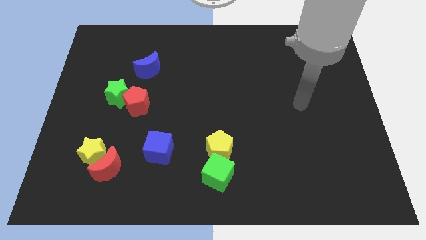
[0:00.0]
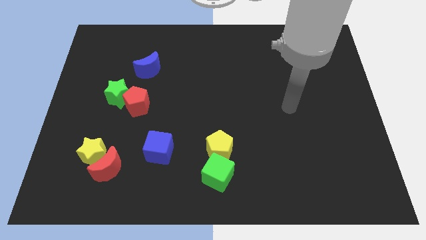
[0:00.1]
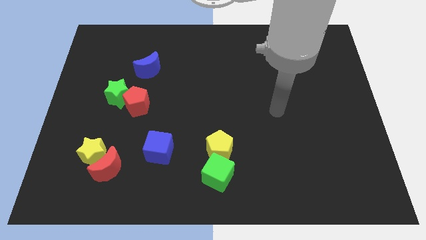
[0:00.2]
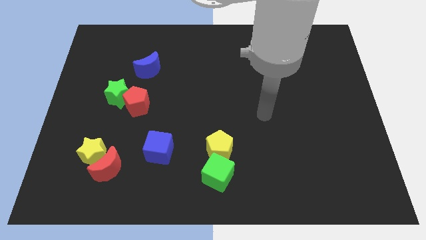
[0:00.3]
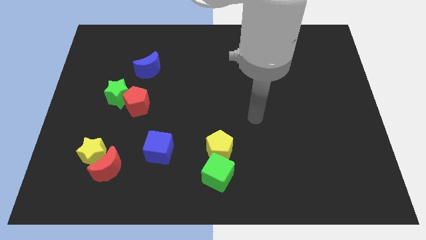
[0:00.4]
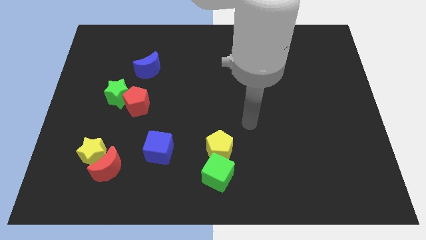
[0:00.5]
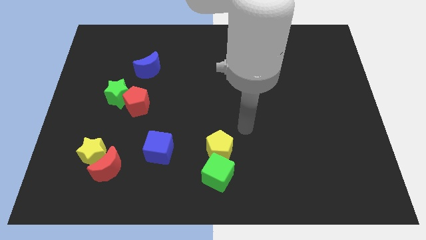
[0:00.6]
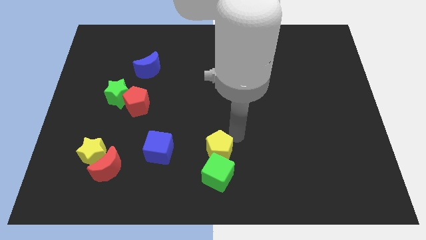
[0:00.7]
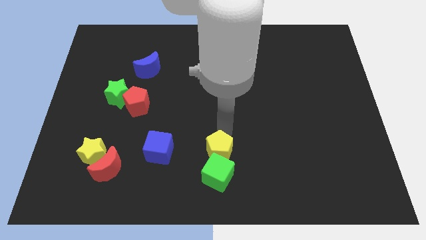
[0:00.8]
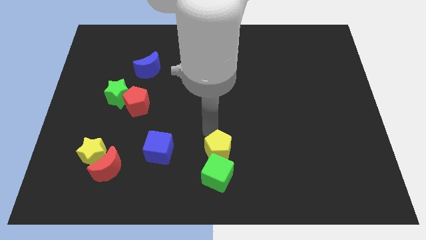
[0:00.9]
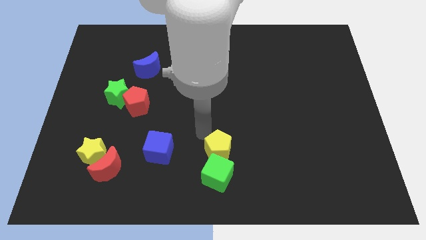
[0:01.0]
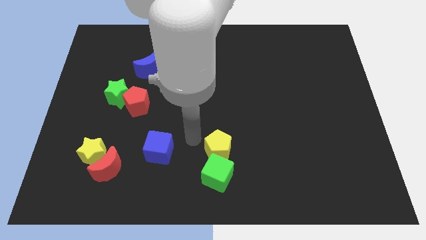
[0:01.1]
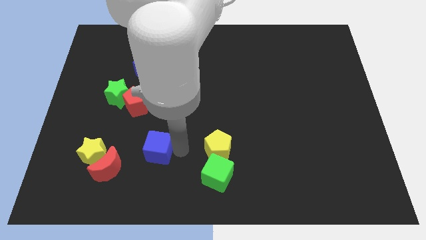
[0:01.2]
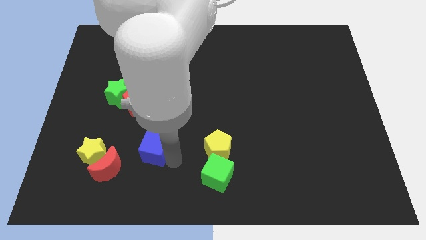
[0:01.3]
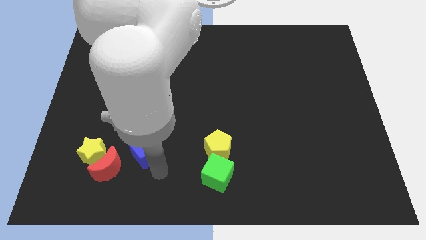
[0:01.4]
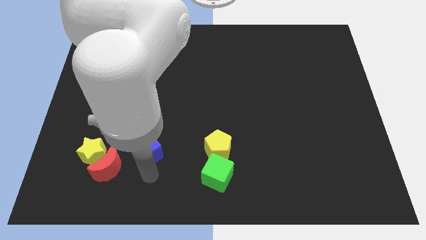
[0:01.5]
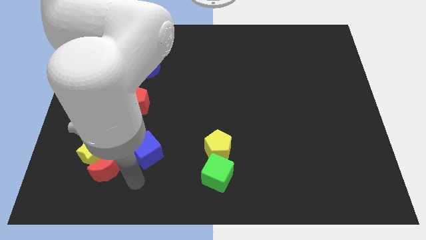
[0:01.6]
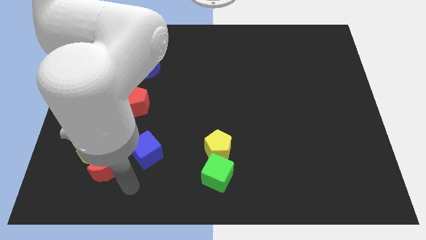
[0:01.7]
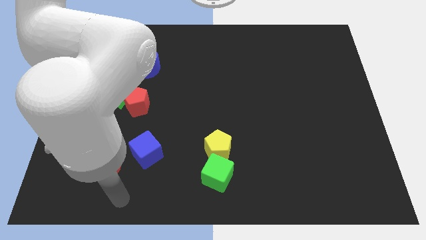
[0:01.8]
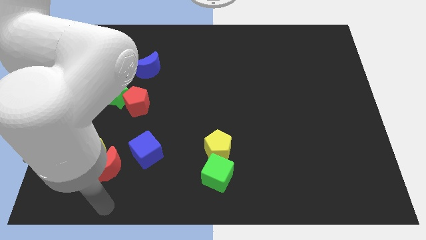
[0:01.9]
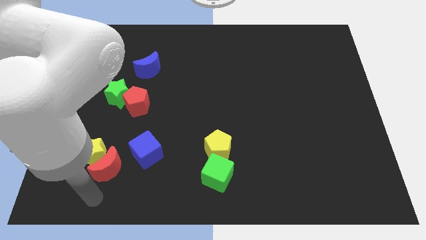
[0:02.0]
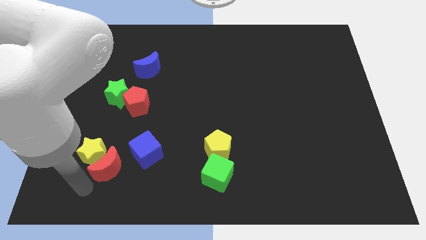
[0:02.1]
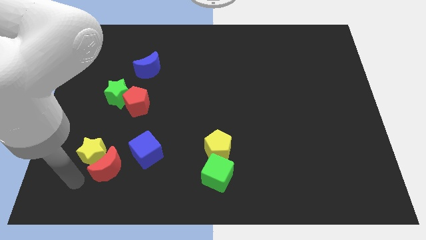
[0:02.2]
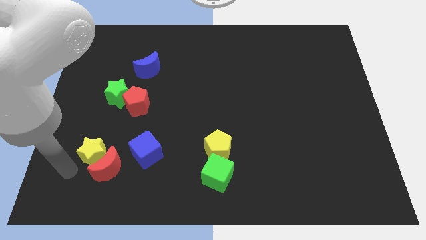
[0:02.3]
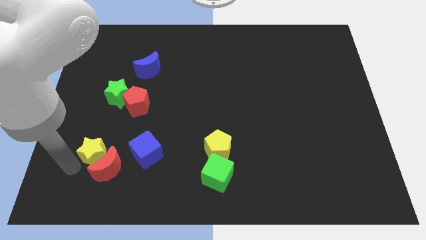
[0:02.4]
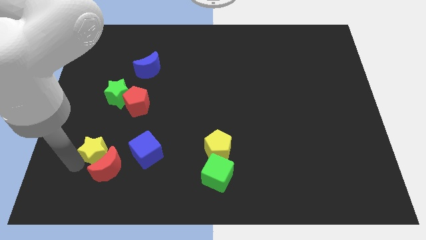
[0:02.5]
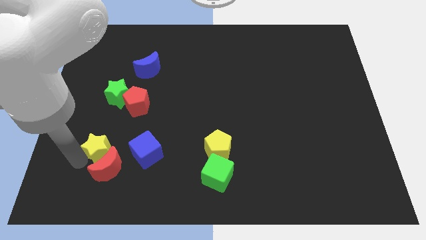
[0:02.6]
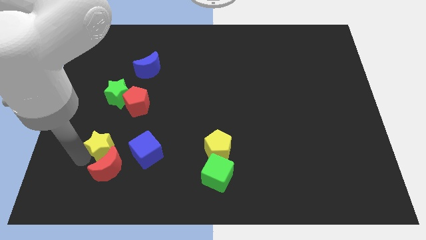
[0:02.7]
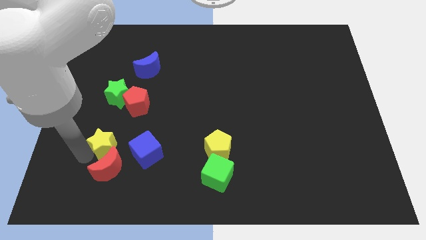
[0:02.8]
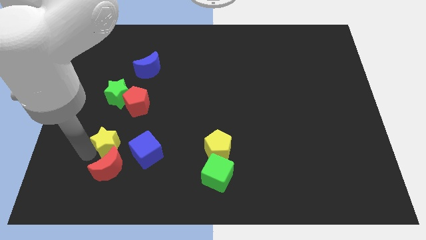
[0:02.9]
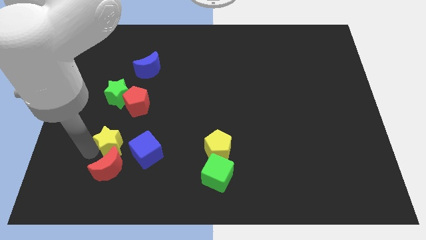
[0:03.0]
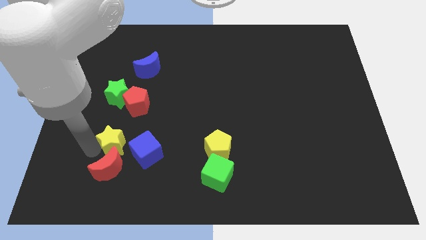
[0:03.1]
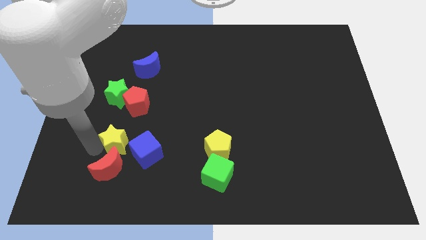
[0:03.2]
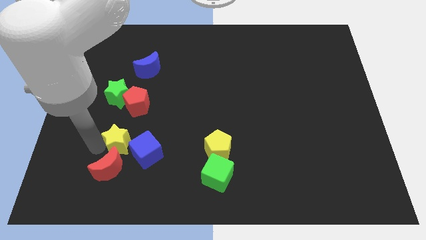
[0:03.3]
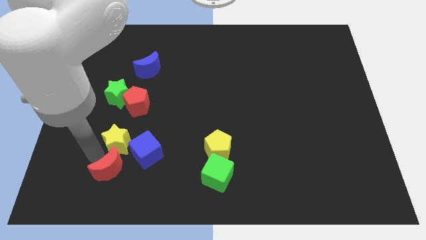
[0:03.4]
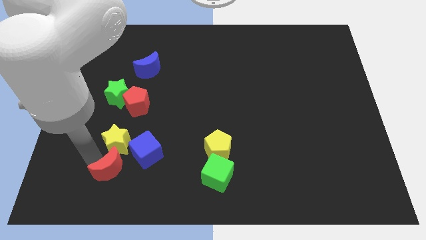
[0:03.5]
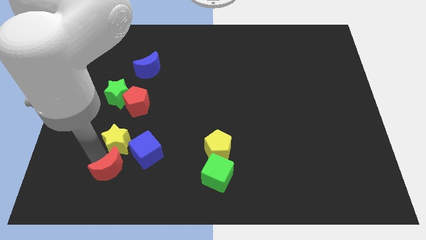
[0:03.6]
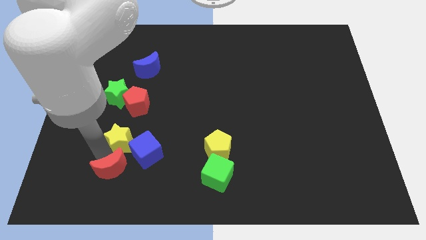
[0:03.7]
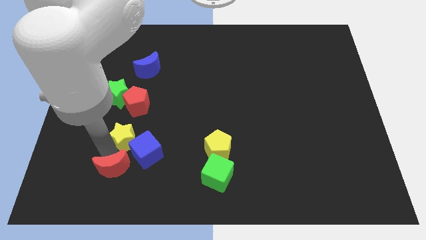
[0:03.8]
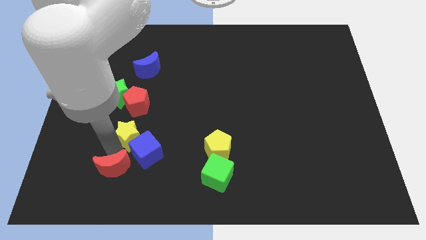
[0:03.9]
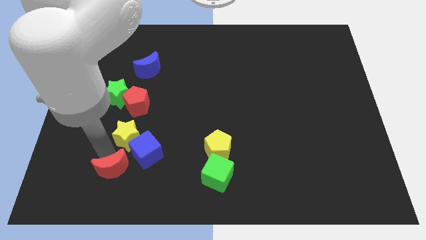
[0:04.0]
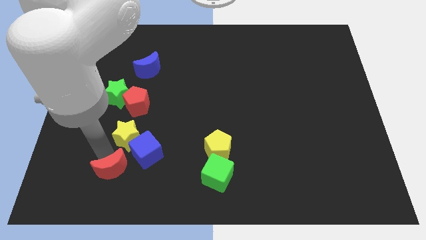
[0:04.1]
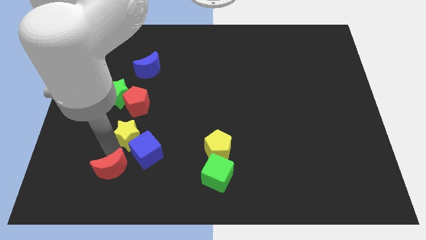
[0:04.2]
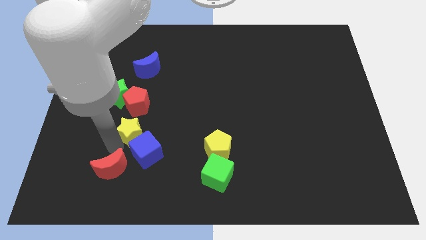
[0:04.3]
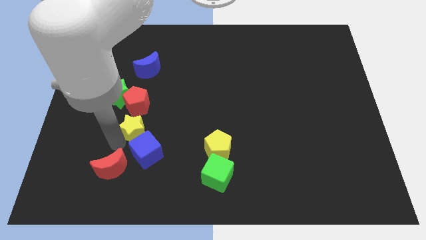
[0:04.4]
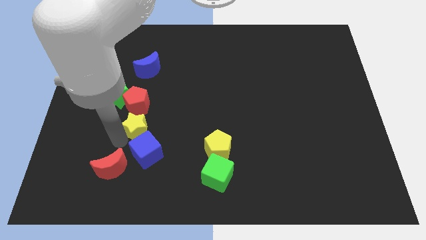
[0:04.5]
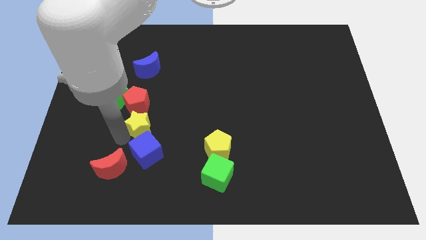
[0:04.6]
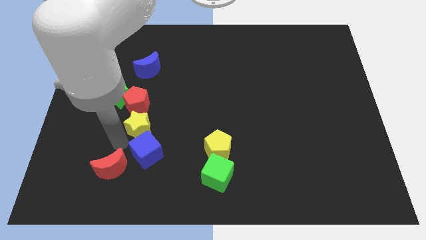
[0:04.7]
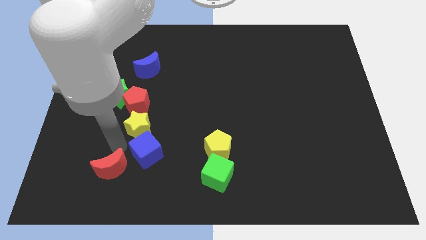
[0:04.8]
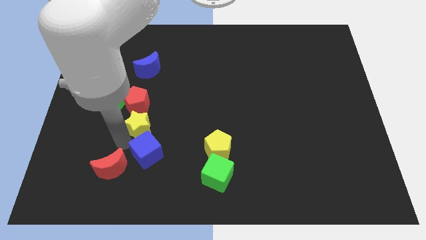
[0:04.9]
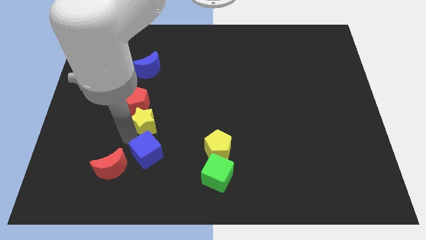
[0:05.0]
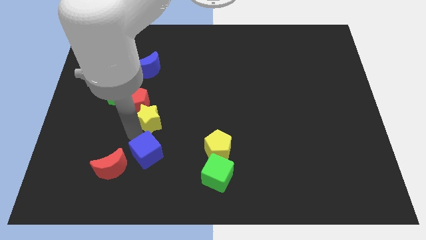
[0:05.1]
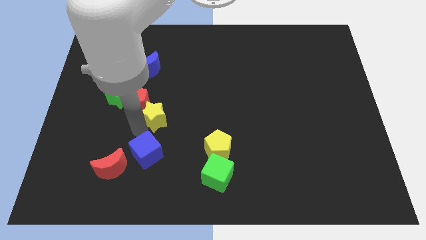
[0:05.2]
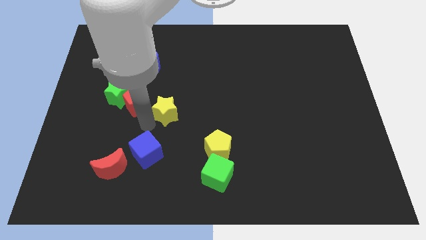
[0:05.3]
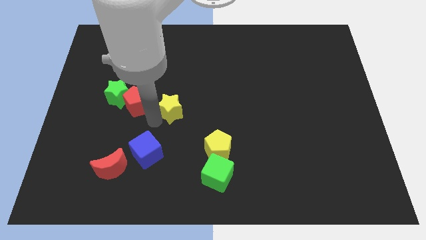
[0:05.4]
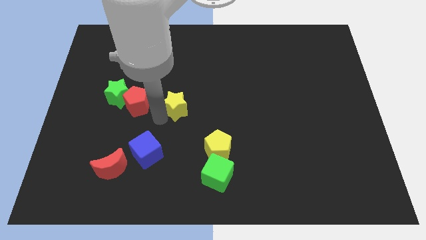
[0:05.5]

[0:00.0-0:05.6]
move the yellow star up and to the right diagonally

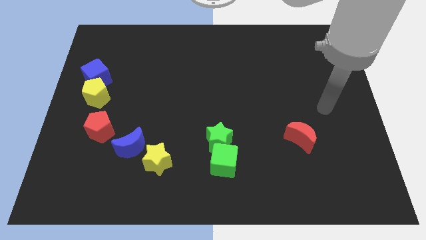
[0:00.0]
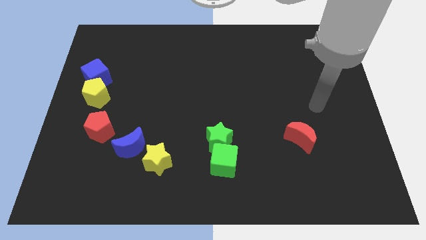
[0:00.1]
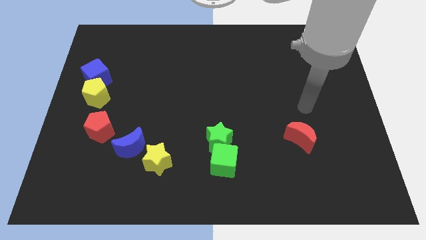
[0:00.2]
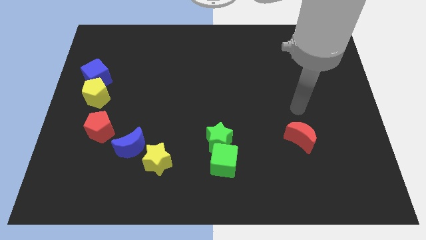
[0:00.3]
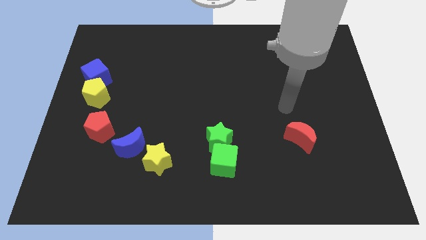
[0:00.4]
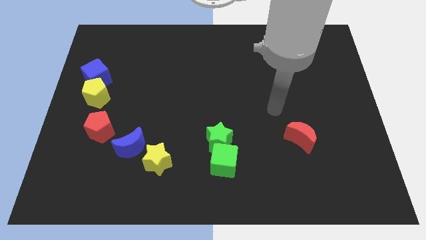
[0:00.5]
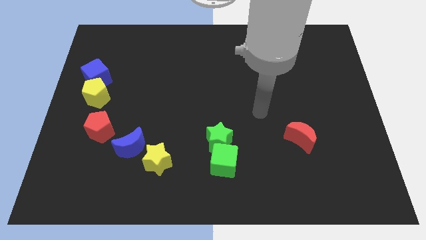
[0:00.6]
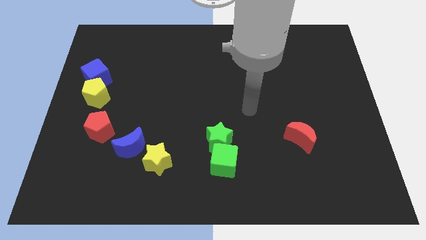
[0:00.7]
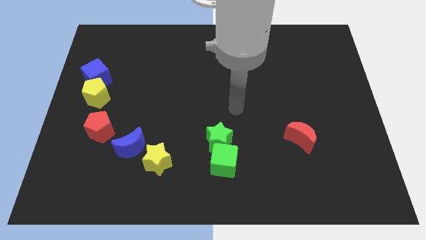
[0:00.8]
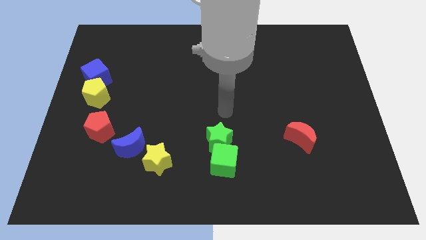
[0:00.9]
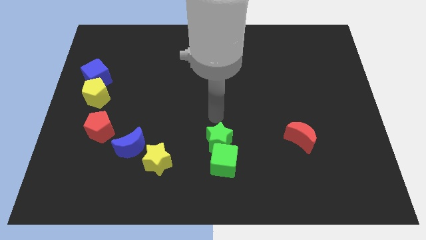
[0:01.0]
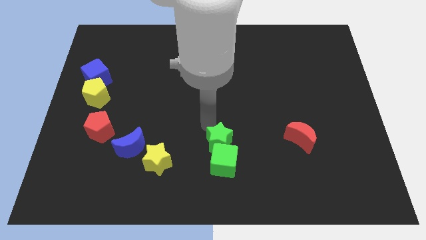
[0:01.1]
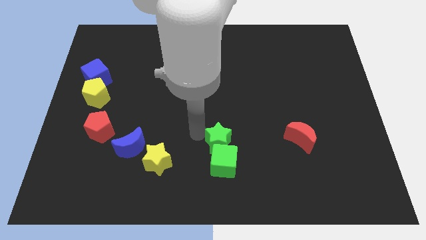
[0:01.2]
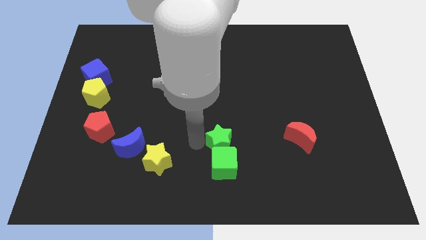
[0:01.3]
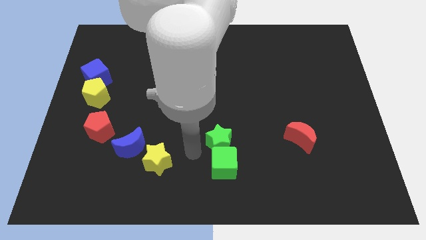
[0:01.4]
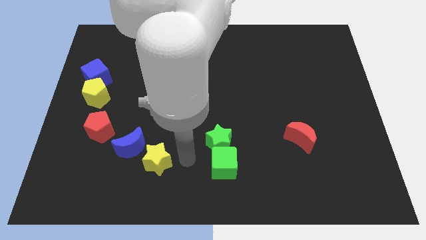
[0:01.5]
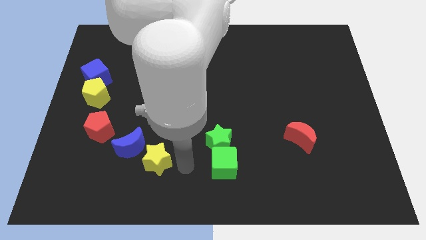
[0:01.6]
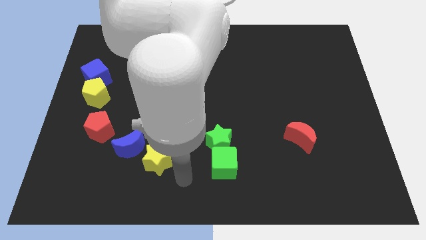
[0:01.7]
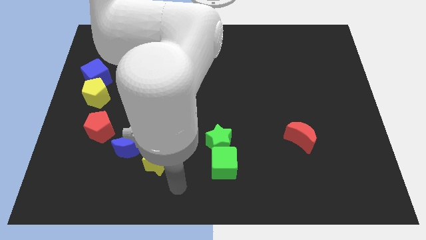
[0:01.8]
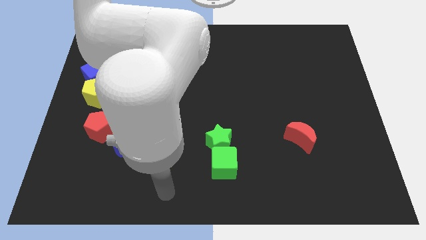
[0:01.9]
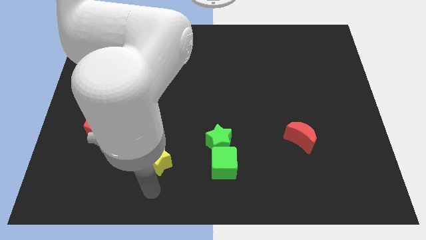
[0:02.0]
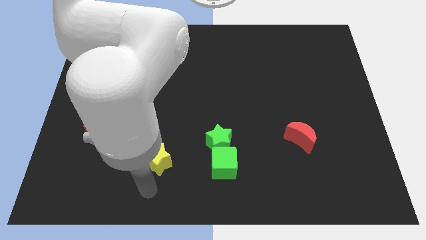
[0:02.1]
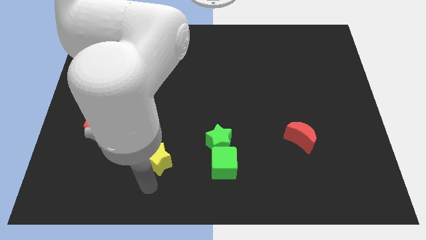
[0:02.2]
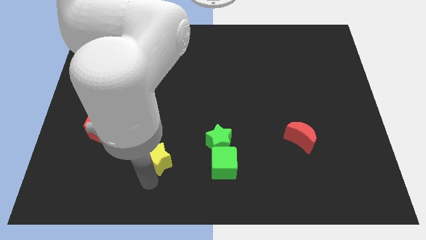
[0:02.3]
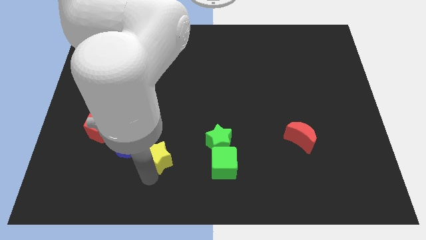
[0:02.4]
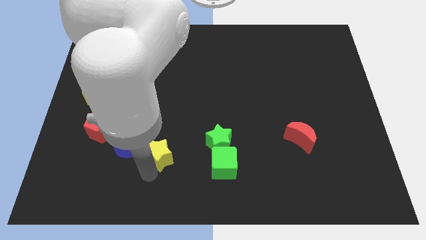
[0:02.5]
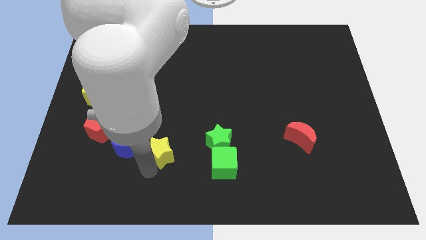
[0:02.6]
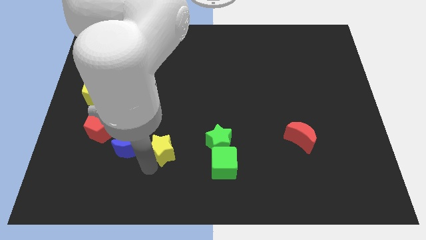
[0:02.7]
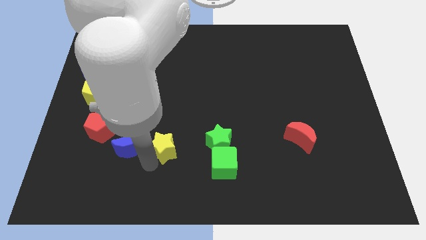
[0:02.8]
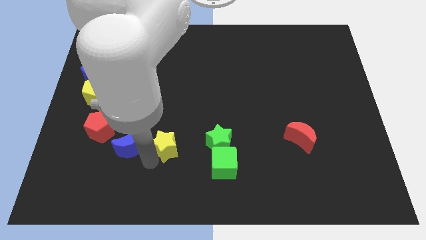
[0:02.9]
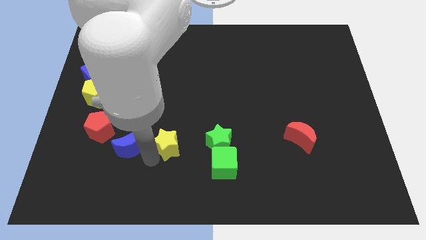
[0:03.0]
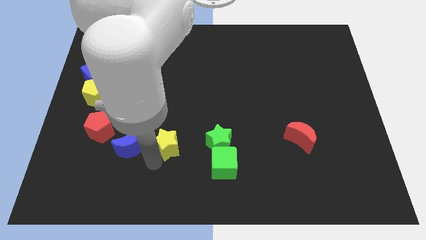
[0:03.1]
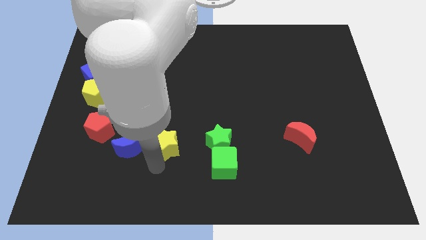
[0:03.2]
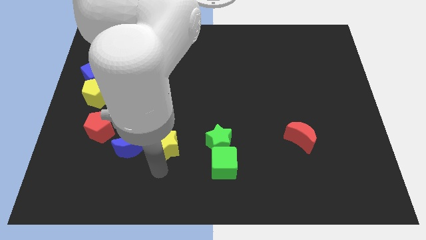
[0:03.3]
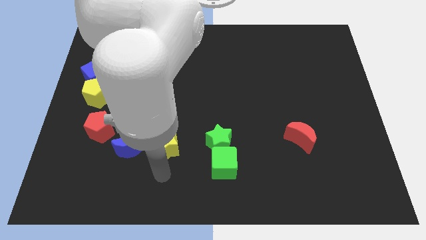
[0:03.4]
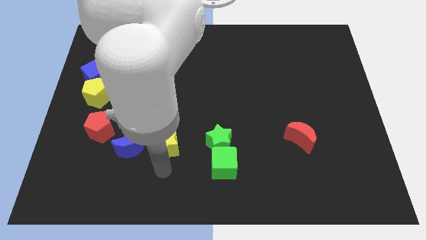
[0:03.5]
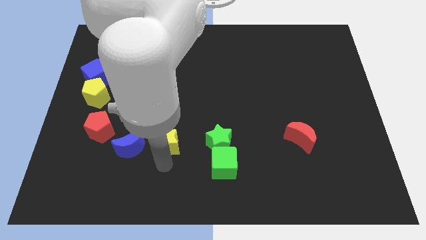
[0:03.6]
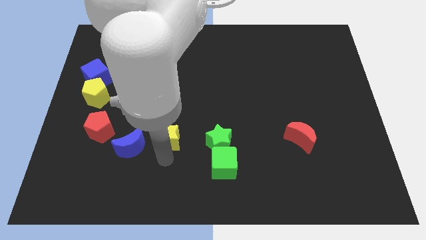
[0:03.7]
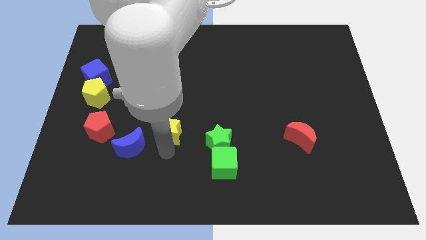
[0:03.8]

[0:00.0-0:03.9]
move the yellow star upwards a bit
